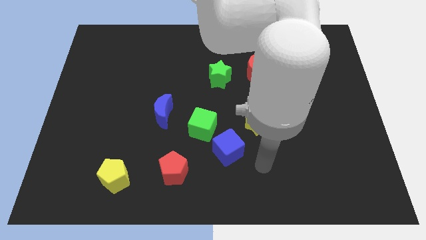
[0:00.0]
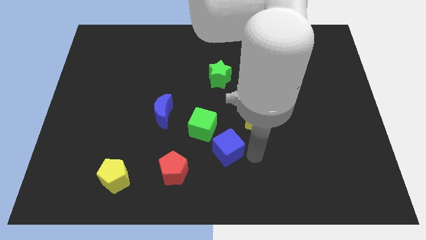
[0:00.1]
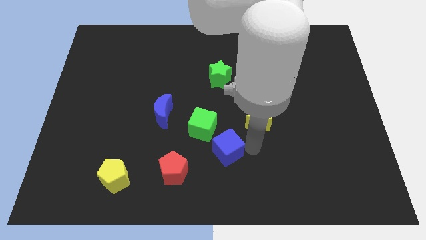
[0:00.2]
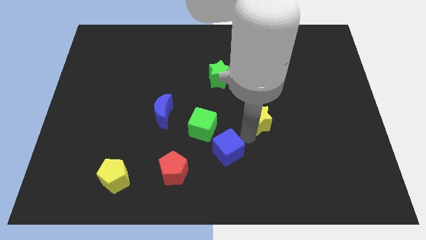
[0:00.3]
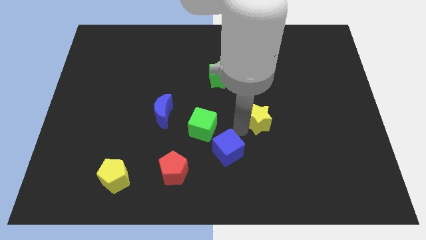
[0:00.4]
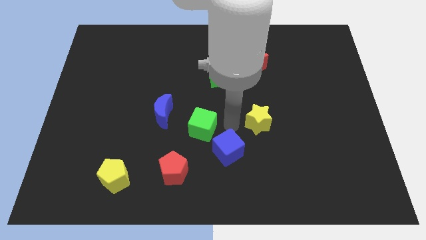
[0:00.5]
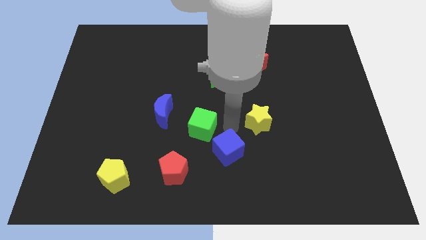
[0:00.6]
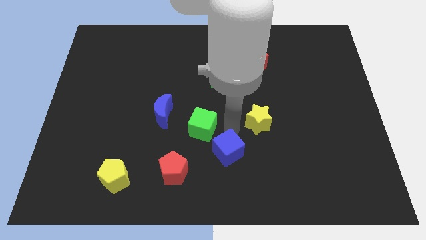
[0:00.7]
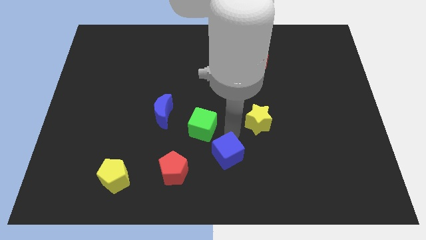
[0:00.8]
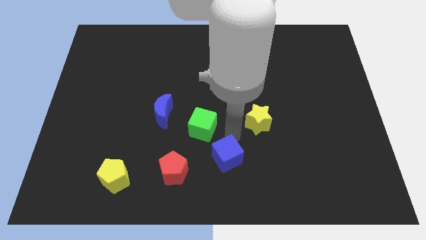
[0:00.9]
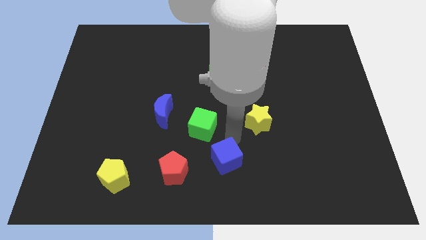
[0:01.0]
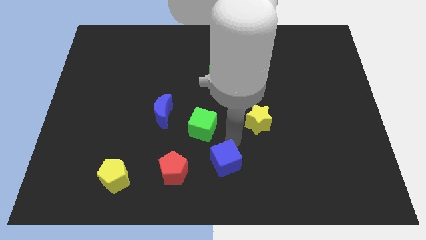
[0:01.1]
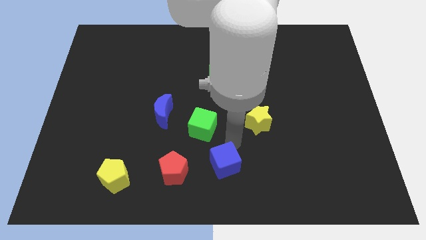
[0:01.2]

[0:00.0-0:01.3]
move the blue cube away from the green cube and yellow star

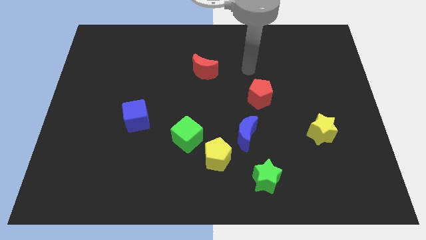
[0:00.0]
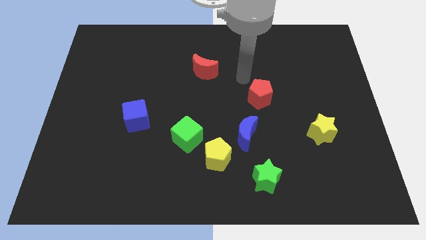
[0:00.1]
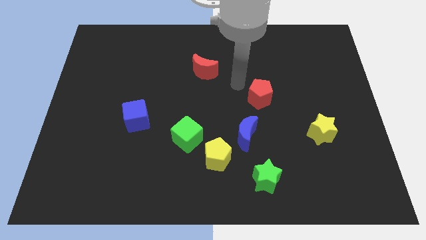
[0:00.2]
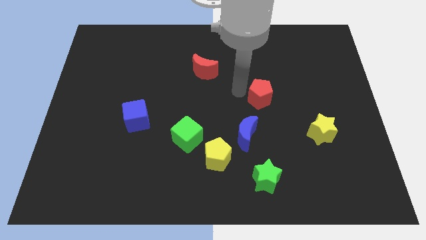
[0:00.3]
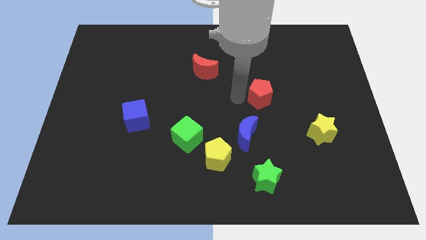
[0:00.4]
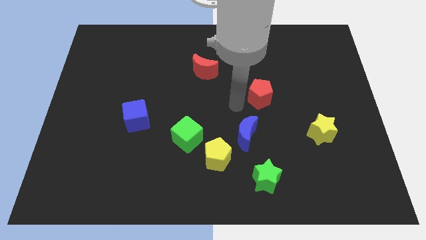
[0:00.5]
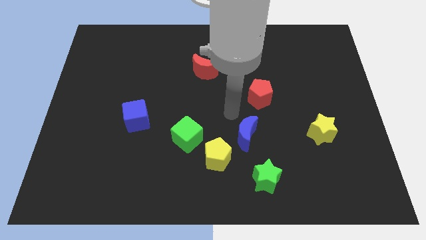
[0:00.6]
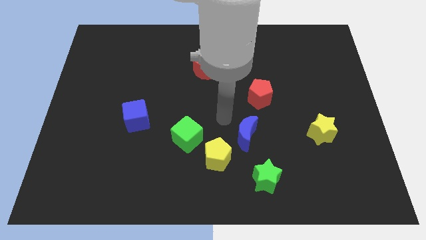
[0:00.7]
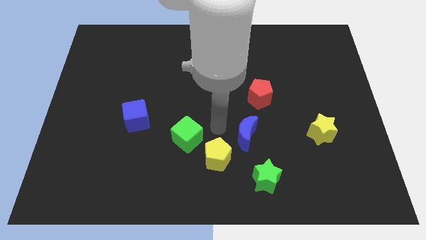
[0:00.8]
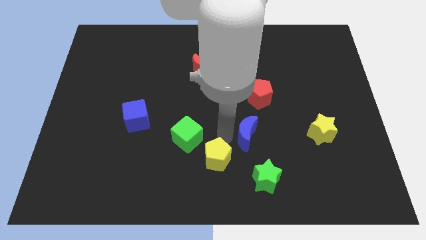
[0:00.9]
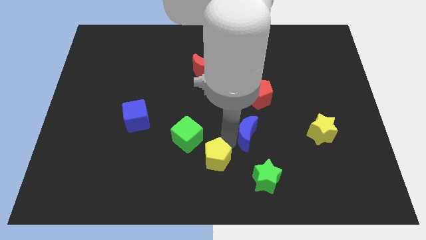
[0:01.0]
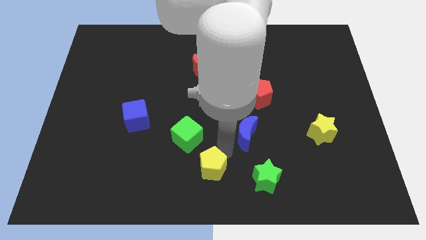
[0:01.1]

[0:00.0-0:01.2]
separate the blue moon from the yellow pentagon

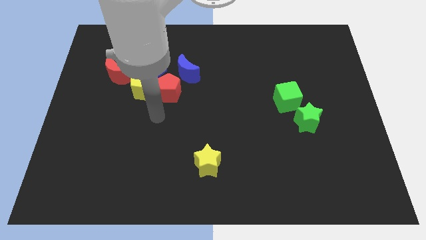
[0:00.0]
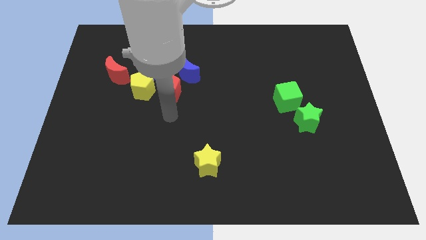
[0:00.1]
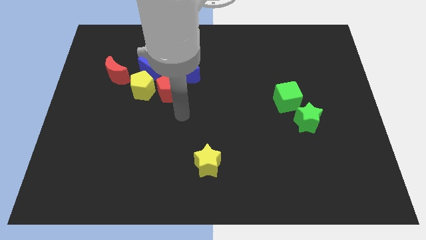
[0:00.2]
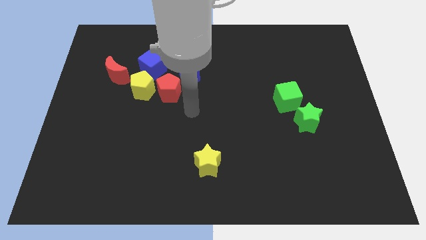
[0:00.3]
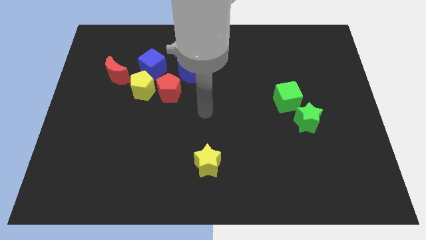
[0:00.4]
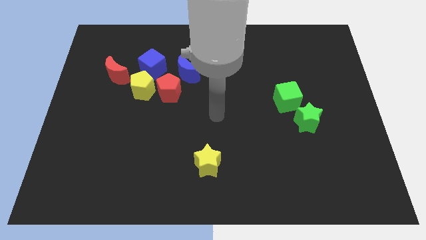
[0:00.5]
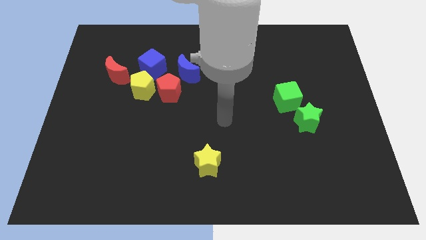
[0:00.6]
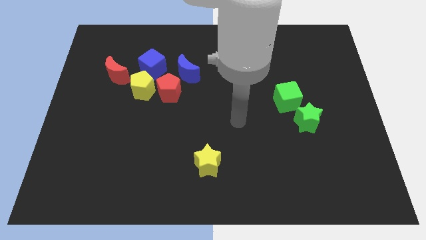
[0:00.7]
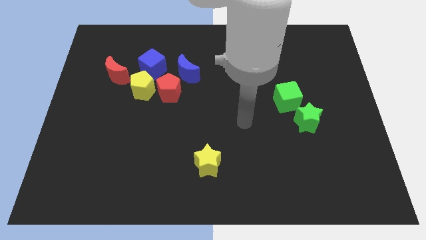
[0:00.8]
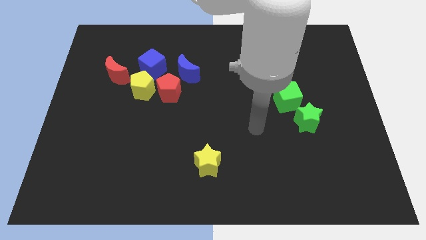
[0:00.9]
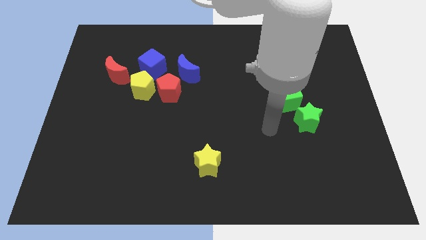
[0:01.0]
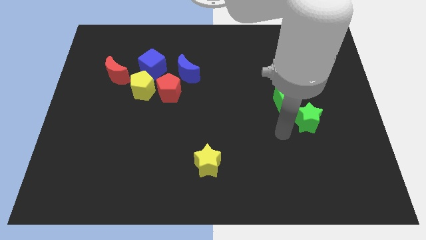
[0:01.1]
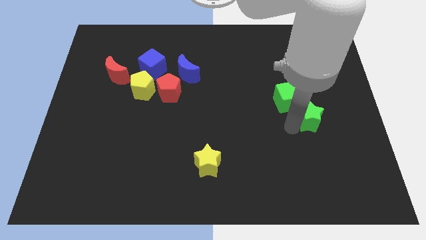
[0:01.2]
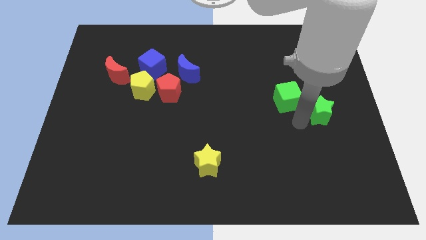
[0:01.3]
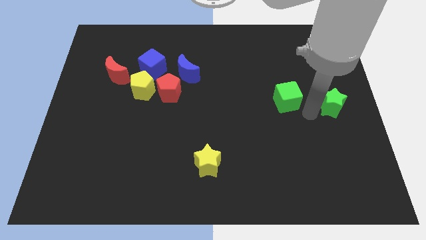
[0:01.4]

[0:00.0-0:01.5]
separate the green cube from the green star

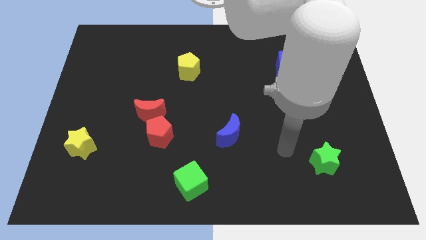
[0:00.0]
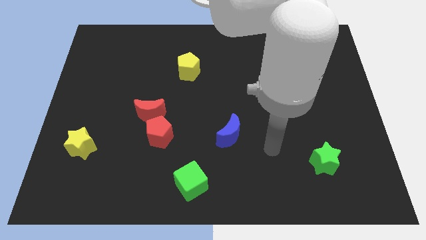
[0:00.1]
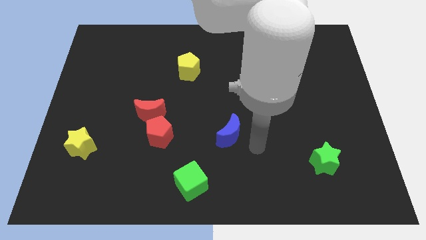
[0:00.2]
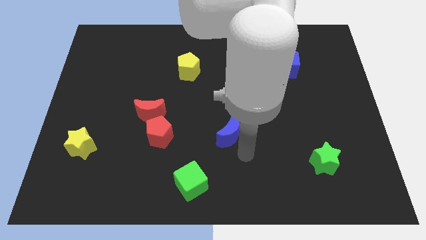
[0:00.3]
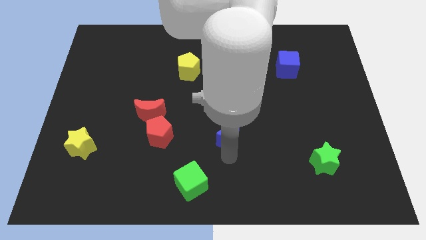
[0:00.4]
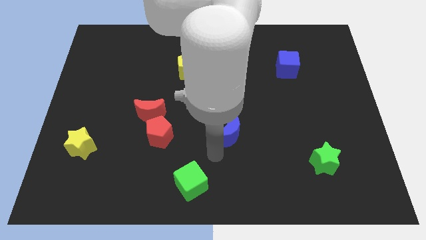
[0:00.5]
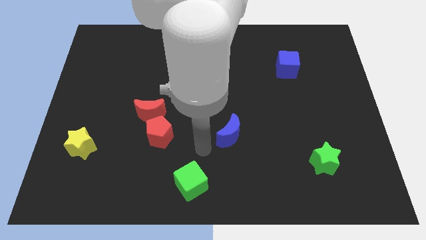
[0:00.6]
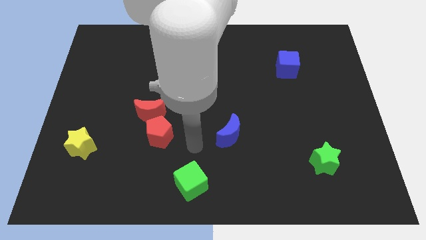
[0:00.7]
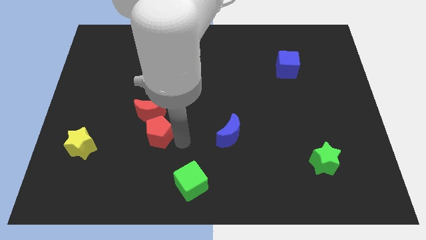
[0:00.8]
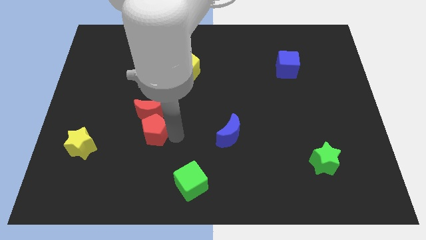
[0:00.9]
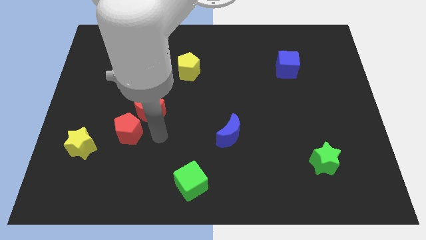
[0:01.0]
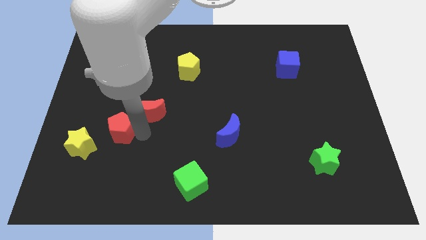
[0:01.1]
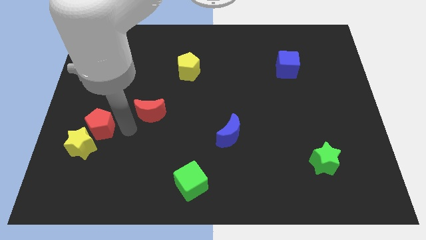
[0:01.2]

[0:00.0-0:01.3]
separate the red moon from the red pentagon

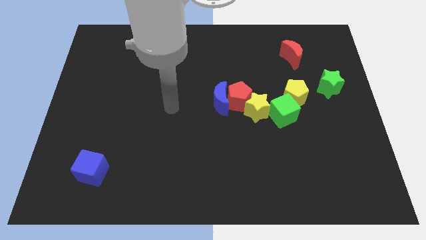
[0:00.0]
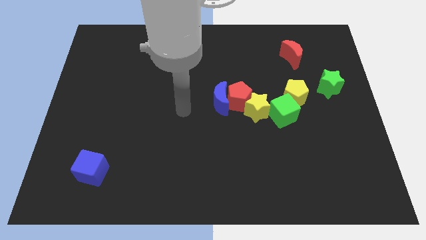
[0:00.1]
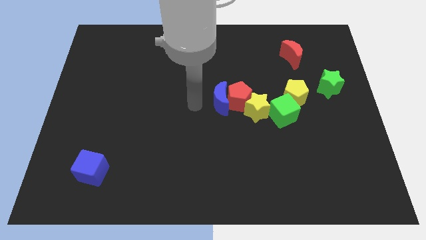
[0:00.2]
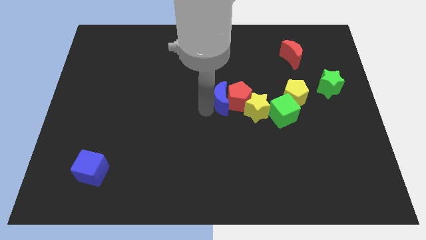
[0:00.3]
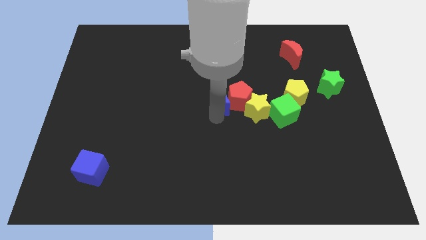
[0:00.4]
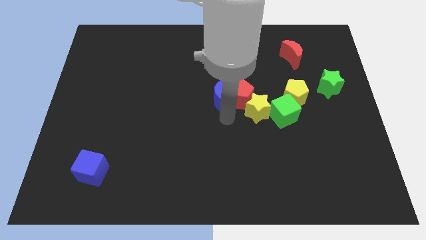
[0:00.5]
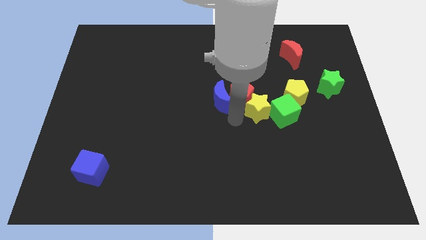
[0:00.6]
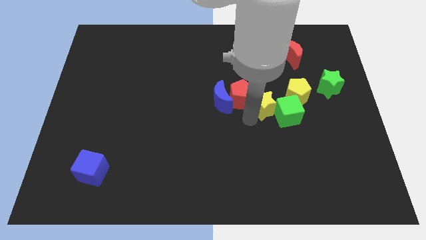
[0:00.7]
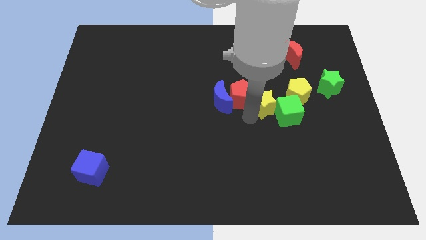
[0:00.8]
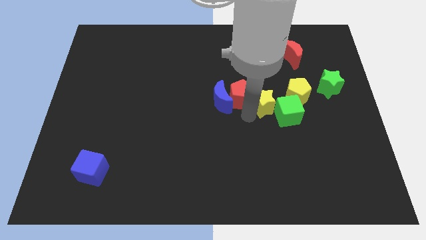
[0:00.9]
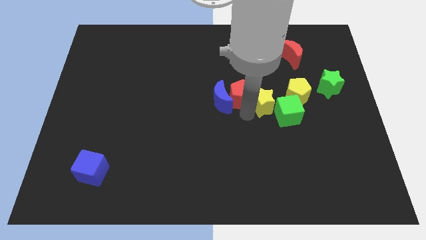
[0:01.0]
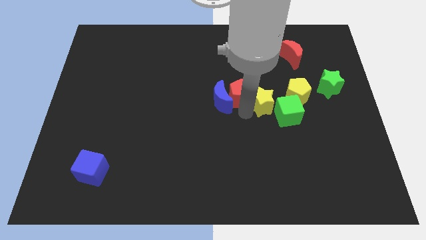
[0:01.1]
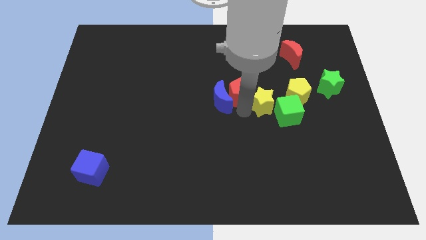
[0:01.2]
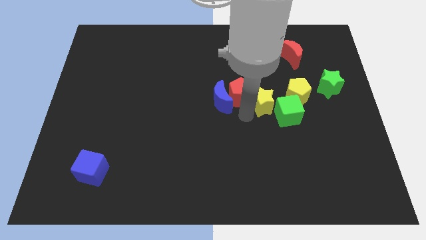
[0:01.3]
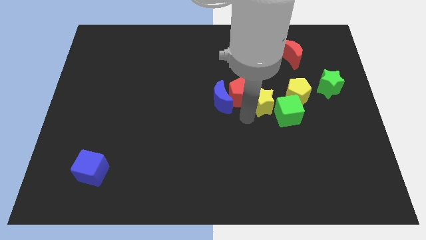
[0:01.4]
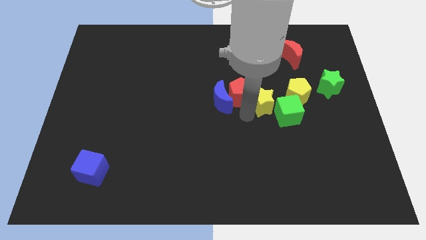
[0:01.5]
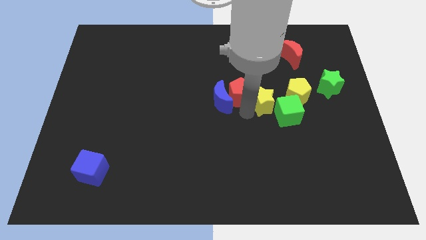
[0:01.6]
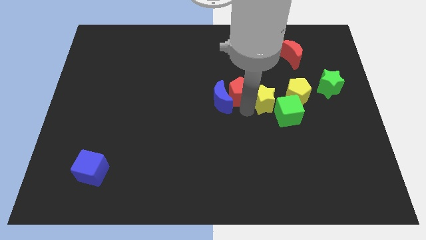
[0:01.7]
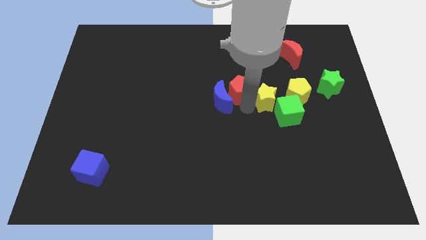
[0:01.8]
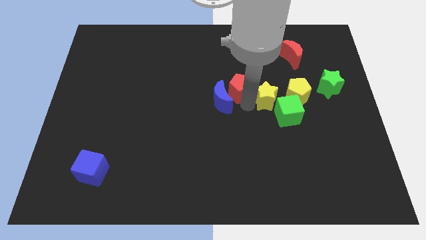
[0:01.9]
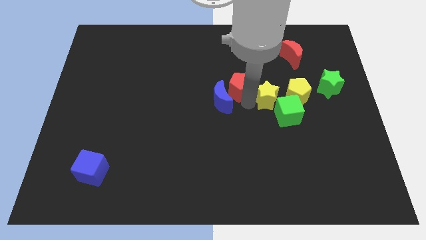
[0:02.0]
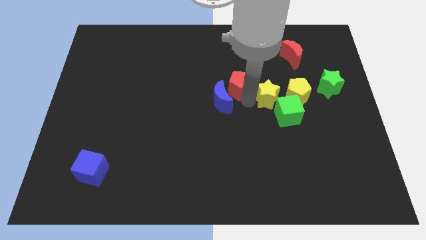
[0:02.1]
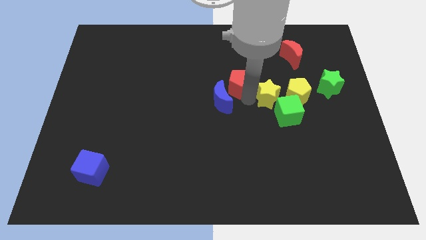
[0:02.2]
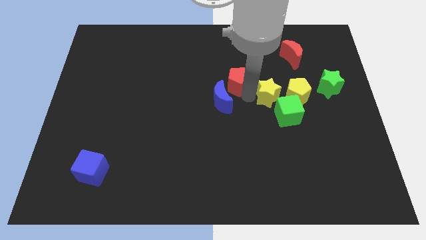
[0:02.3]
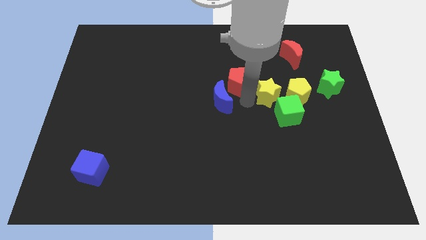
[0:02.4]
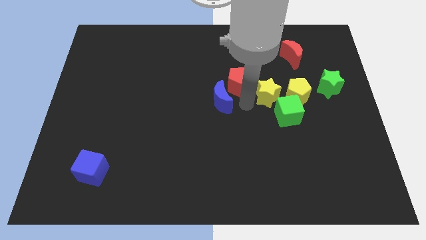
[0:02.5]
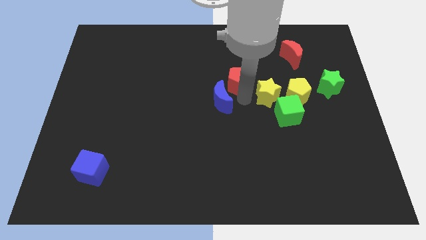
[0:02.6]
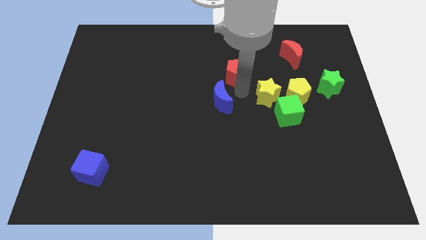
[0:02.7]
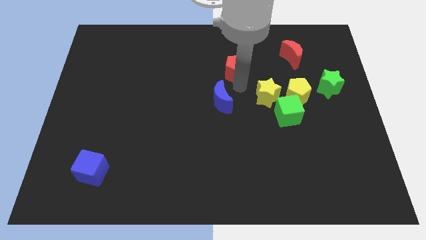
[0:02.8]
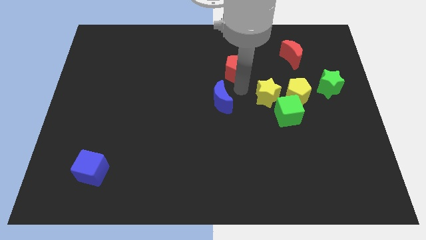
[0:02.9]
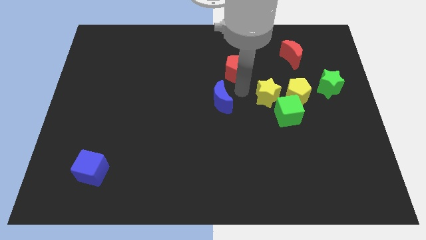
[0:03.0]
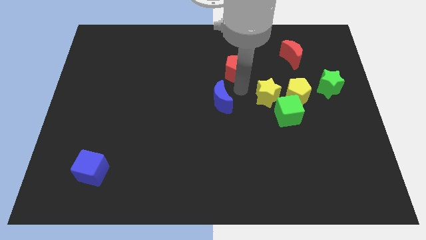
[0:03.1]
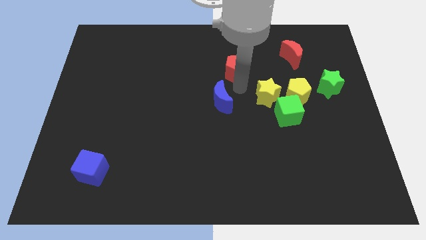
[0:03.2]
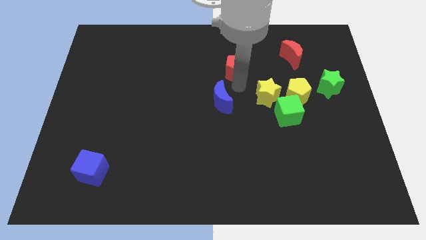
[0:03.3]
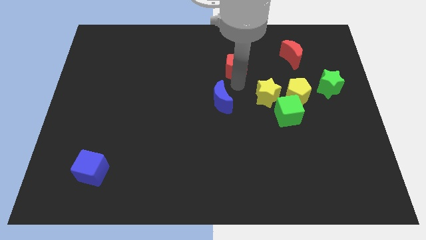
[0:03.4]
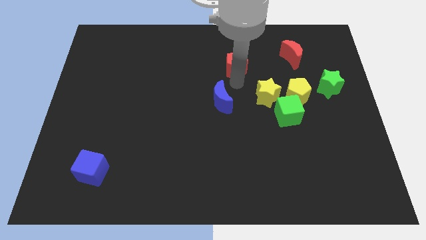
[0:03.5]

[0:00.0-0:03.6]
move the red pentagon away from the blue moon and yellow star

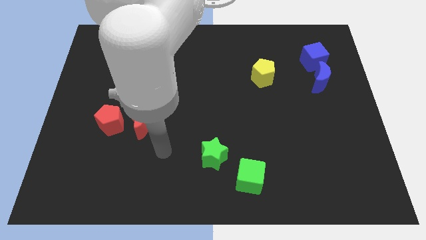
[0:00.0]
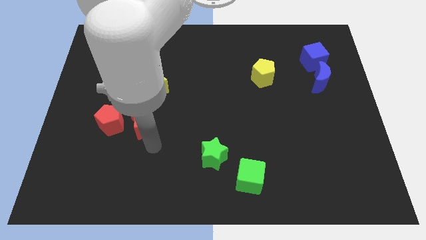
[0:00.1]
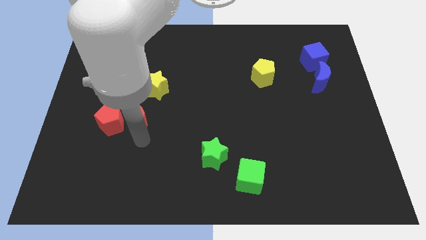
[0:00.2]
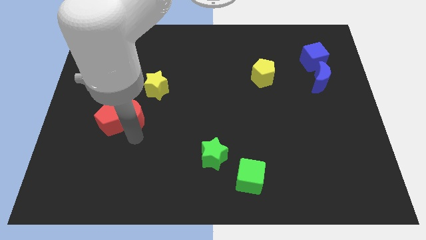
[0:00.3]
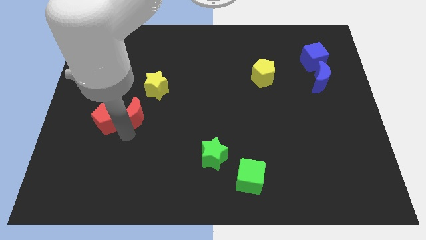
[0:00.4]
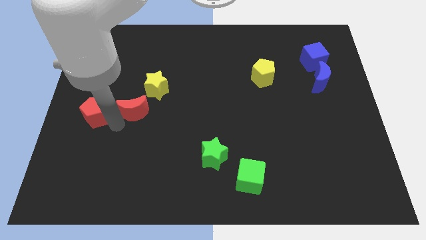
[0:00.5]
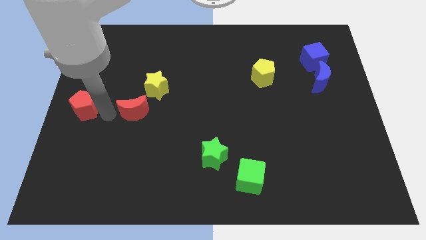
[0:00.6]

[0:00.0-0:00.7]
move the red moon away from the red pentagon
